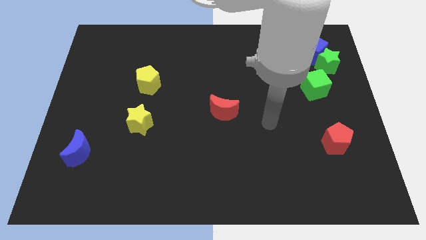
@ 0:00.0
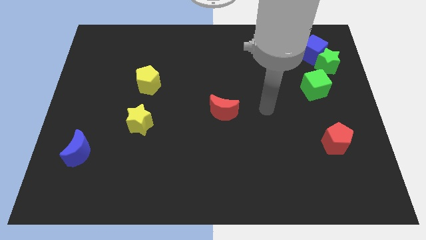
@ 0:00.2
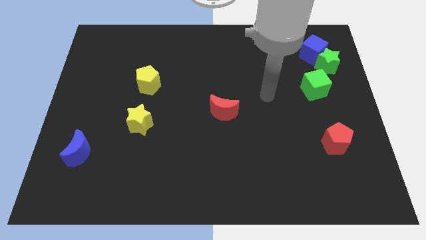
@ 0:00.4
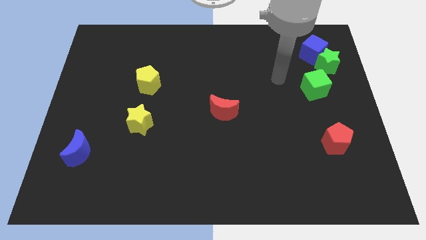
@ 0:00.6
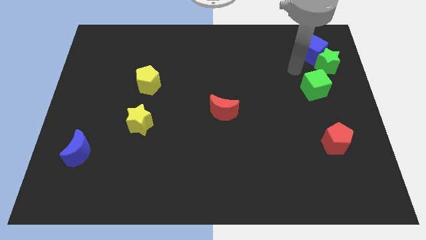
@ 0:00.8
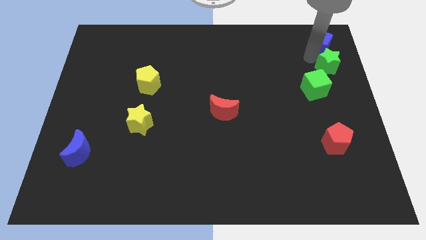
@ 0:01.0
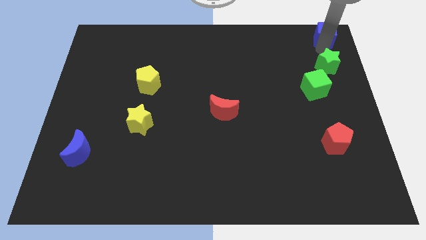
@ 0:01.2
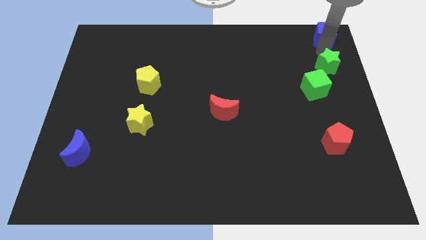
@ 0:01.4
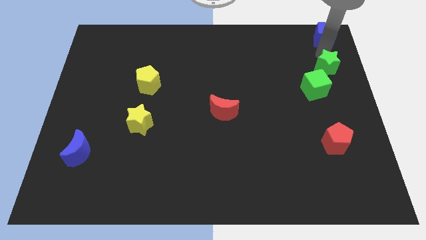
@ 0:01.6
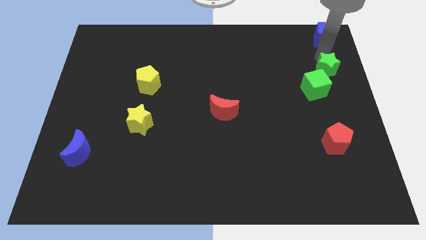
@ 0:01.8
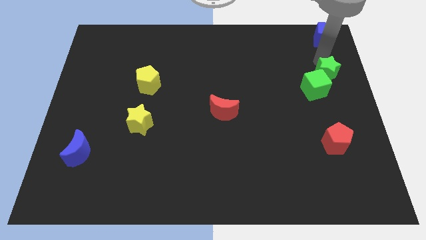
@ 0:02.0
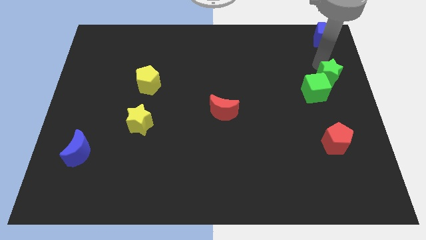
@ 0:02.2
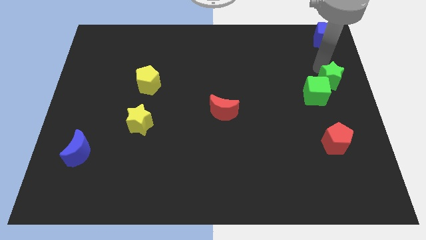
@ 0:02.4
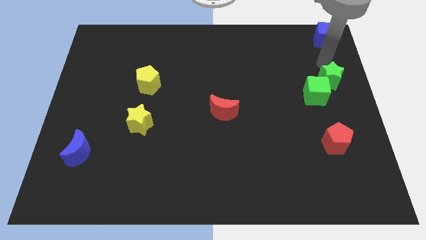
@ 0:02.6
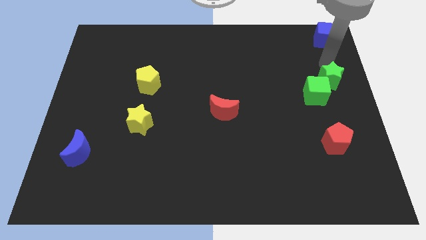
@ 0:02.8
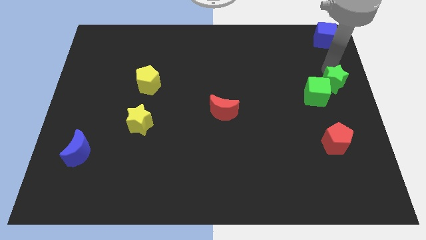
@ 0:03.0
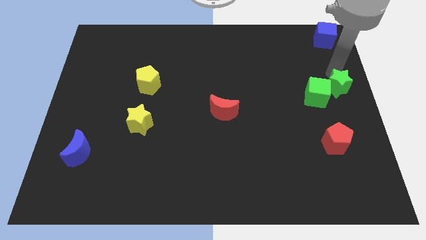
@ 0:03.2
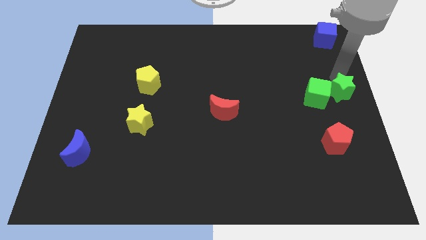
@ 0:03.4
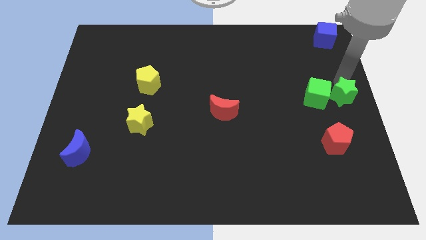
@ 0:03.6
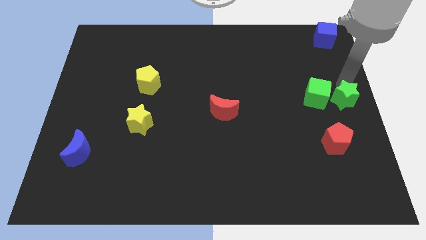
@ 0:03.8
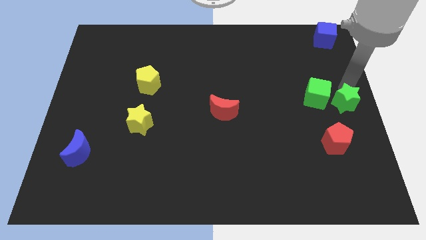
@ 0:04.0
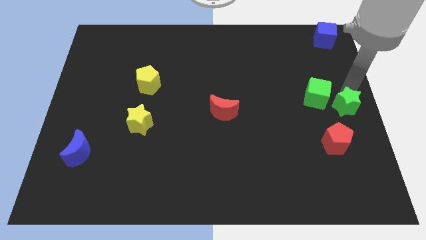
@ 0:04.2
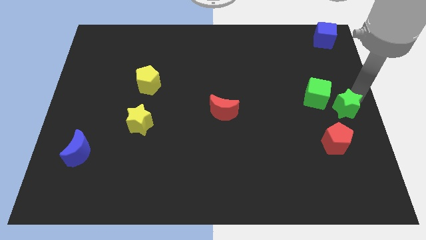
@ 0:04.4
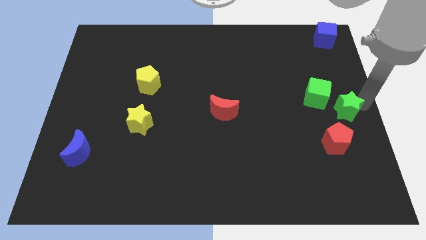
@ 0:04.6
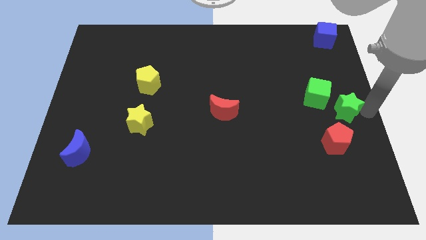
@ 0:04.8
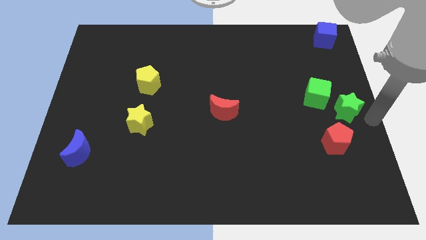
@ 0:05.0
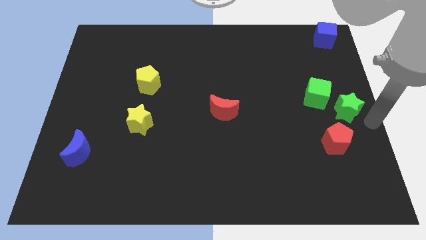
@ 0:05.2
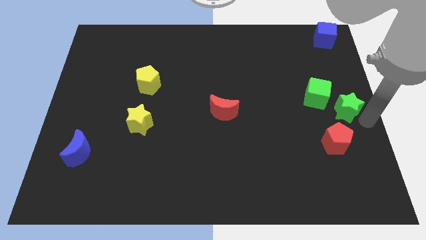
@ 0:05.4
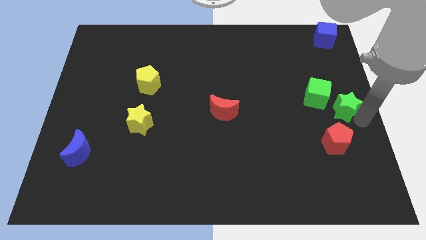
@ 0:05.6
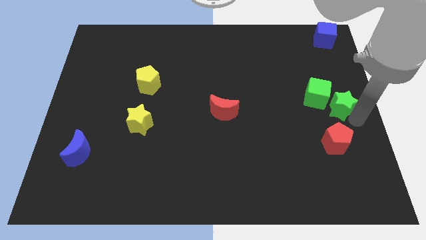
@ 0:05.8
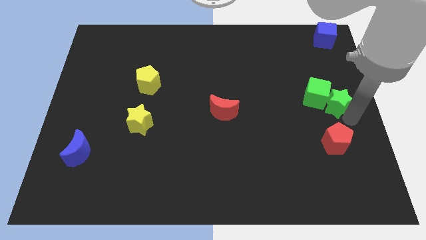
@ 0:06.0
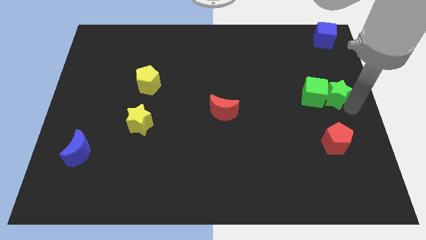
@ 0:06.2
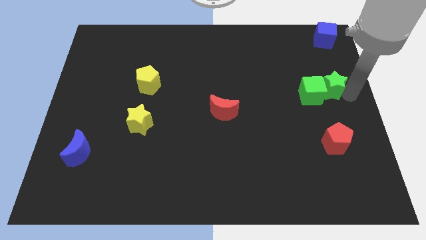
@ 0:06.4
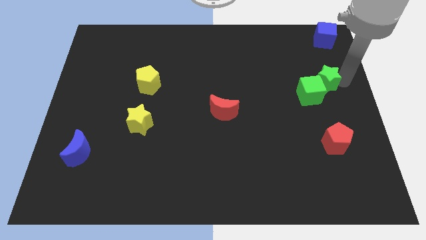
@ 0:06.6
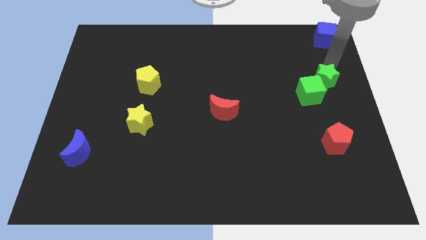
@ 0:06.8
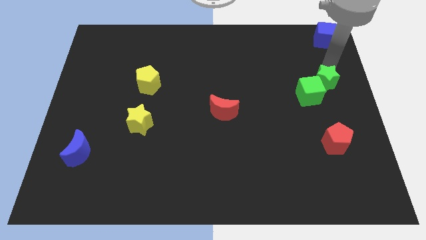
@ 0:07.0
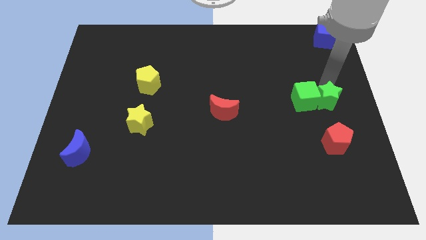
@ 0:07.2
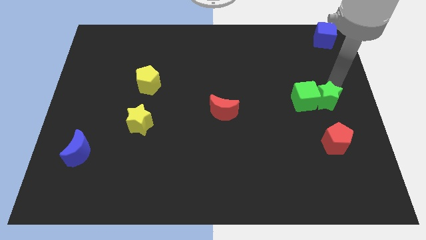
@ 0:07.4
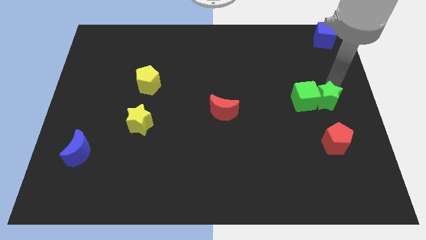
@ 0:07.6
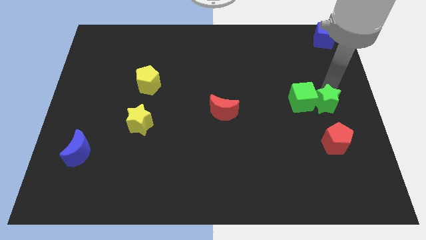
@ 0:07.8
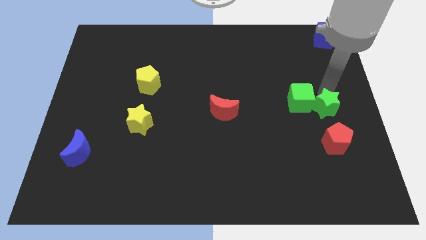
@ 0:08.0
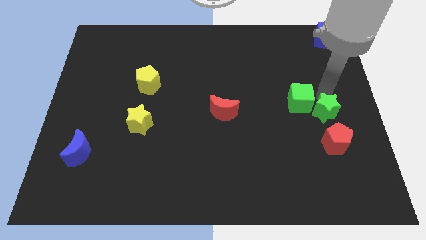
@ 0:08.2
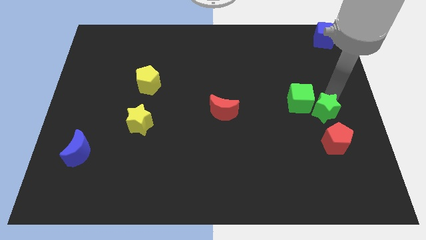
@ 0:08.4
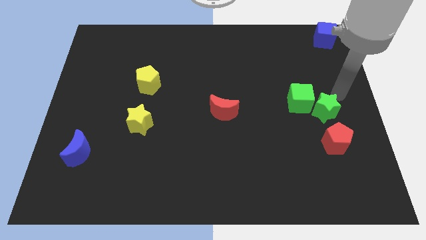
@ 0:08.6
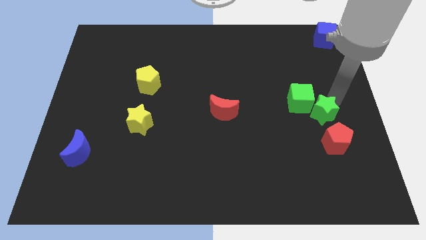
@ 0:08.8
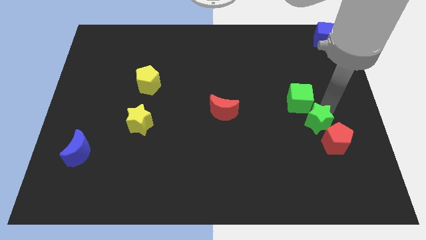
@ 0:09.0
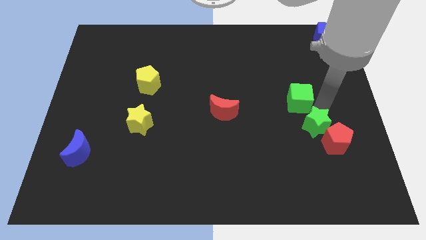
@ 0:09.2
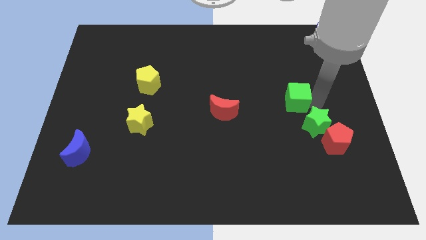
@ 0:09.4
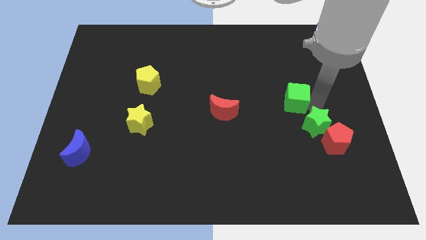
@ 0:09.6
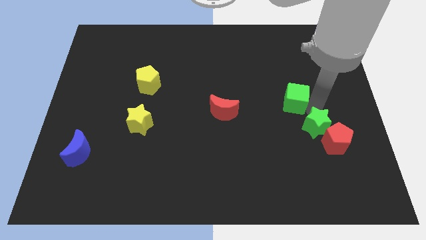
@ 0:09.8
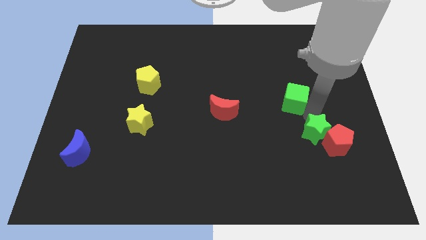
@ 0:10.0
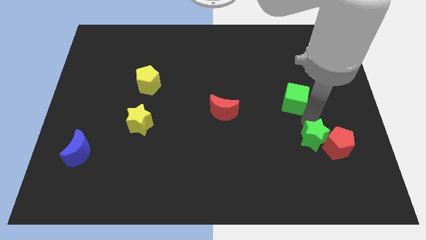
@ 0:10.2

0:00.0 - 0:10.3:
push the green star to the bottom left of the red pentagon

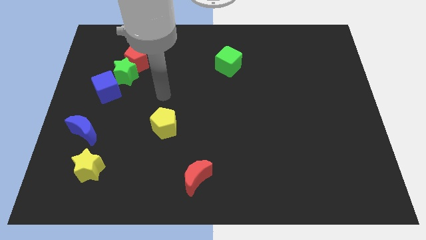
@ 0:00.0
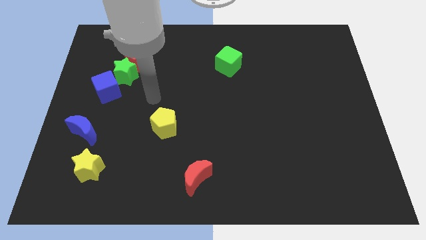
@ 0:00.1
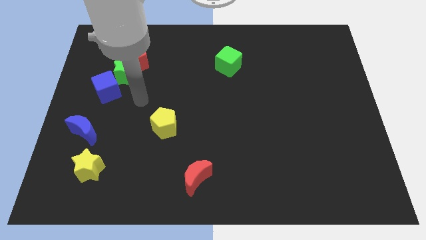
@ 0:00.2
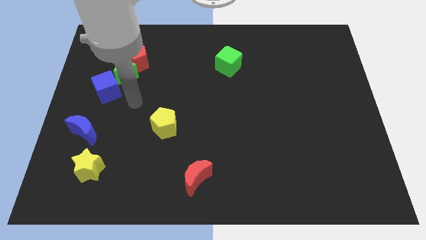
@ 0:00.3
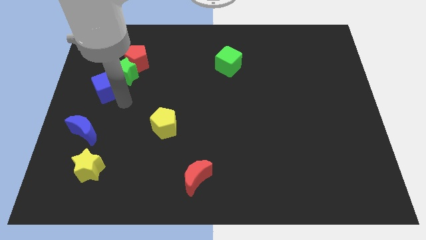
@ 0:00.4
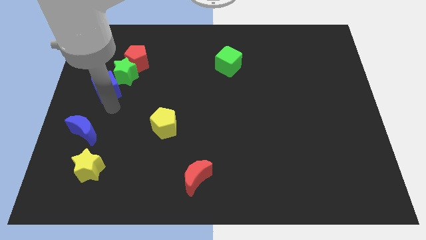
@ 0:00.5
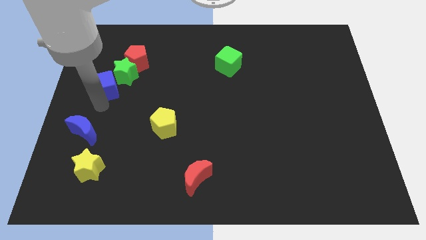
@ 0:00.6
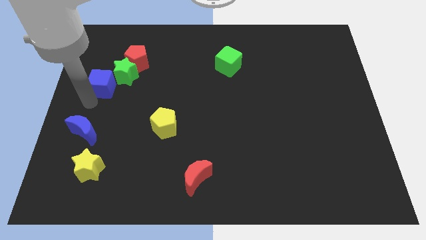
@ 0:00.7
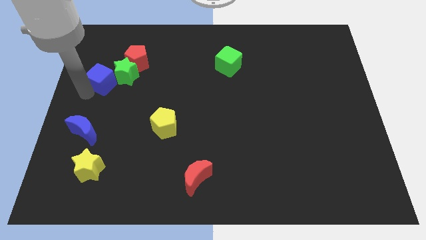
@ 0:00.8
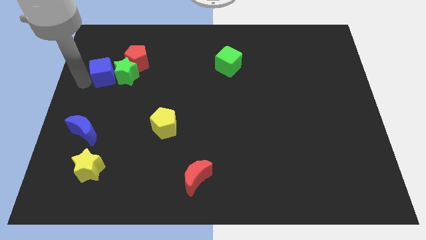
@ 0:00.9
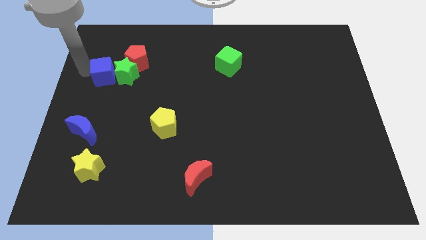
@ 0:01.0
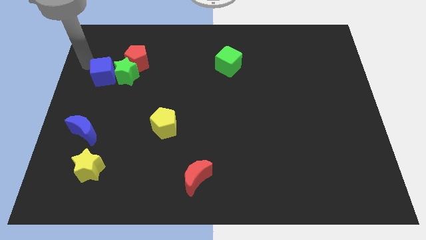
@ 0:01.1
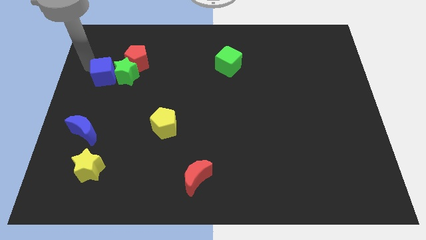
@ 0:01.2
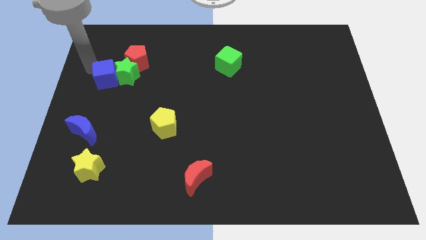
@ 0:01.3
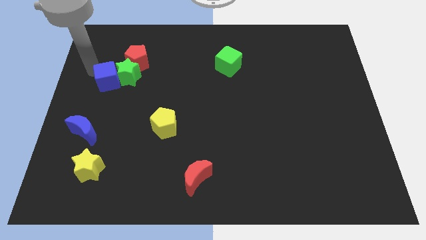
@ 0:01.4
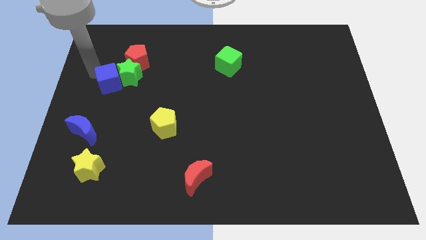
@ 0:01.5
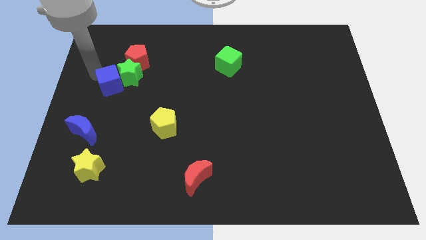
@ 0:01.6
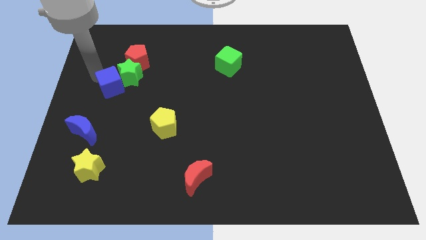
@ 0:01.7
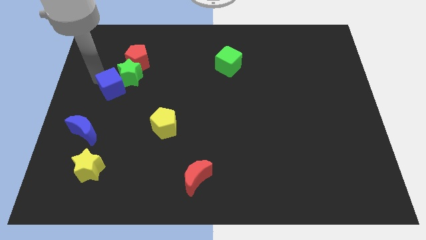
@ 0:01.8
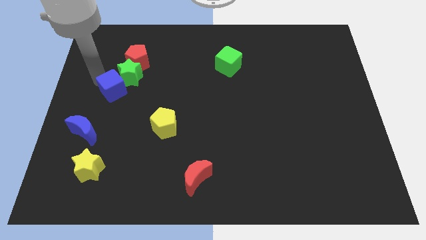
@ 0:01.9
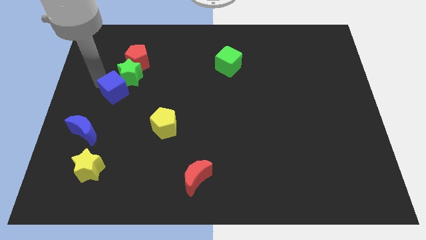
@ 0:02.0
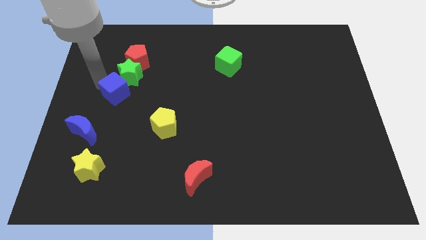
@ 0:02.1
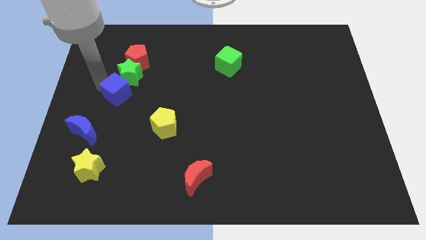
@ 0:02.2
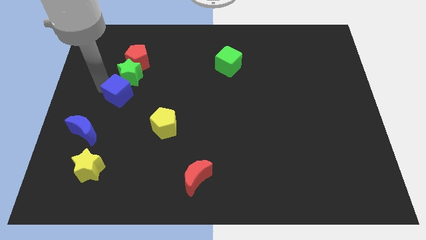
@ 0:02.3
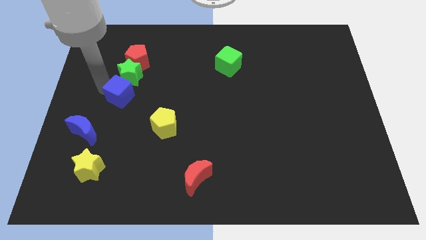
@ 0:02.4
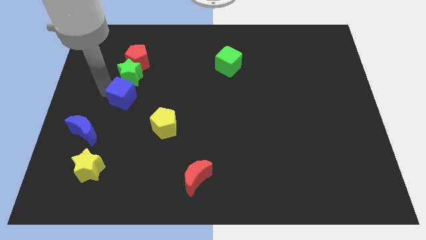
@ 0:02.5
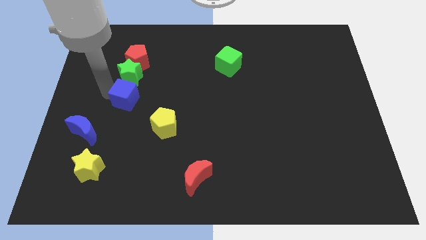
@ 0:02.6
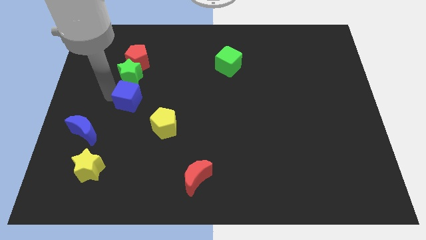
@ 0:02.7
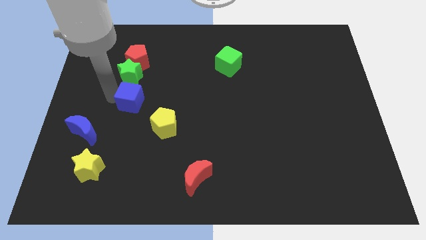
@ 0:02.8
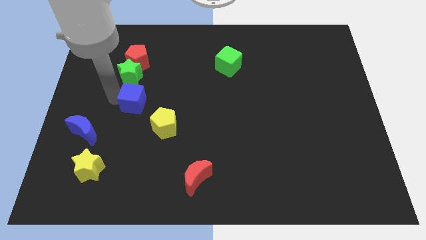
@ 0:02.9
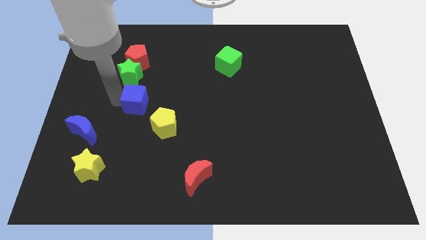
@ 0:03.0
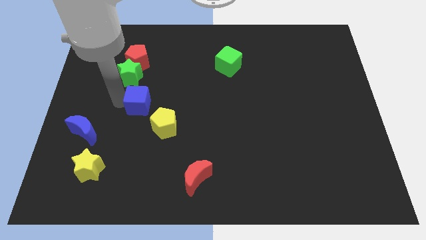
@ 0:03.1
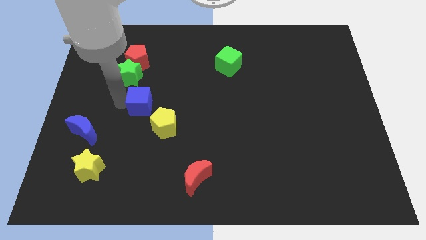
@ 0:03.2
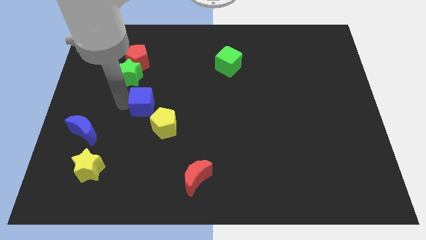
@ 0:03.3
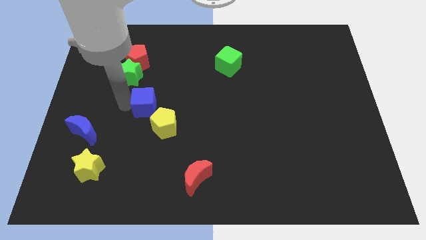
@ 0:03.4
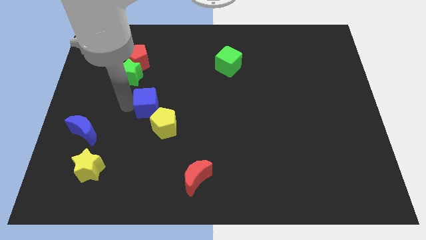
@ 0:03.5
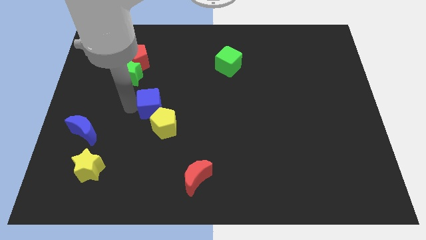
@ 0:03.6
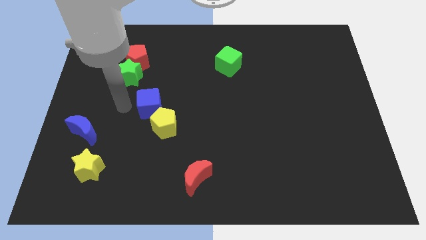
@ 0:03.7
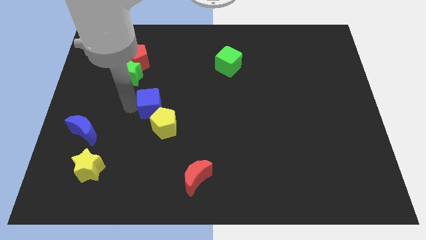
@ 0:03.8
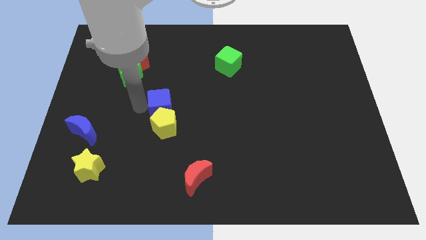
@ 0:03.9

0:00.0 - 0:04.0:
move the blue cube diagonally up and to the right of the yellow pentagon
